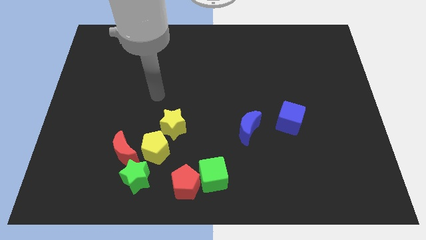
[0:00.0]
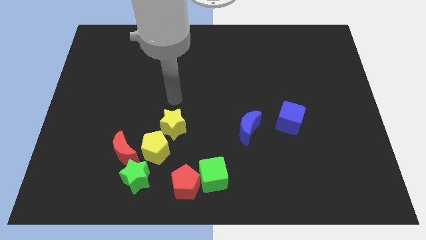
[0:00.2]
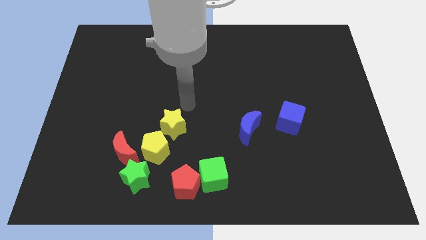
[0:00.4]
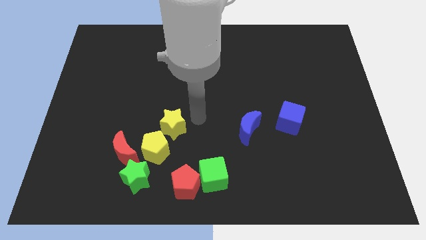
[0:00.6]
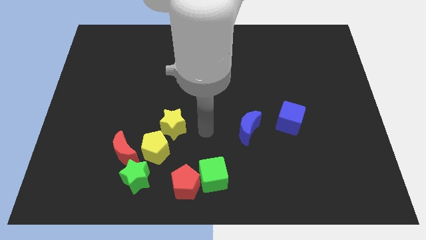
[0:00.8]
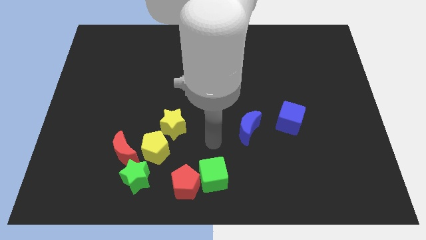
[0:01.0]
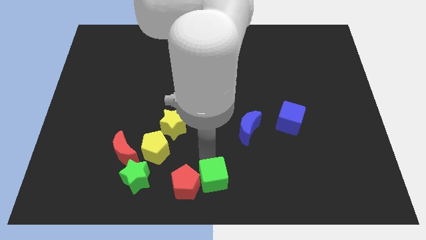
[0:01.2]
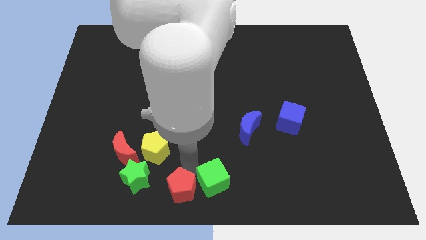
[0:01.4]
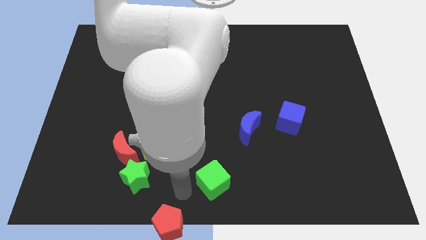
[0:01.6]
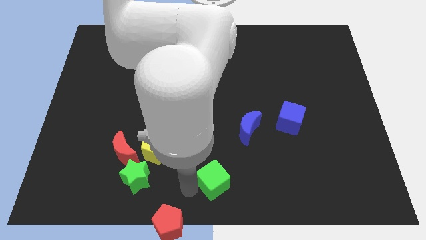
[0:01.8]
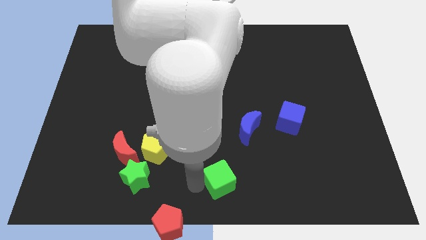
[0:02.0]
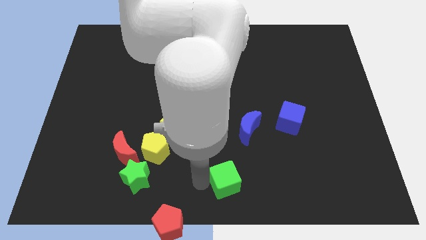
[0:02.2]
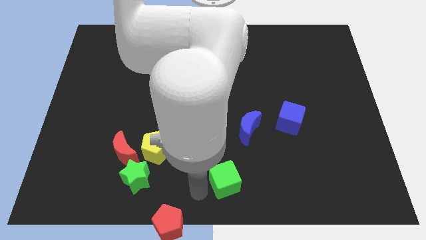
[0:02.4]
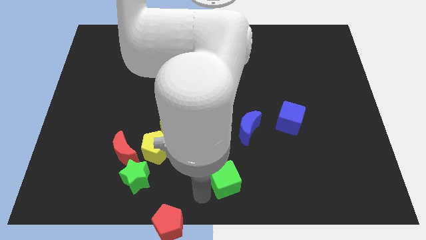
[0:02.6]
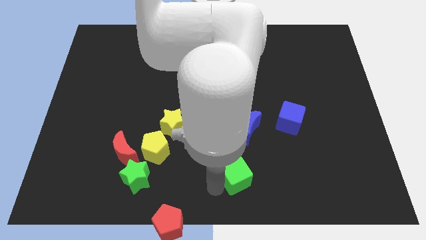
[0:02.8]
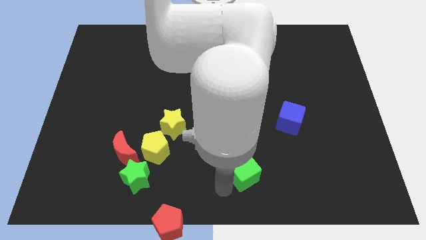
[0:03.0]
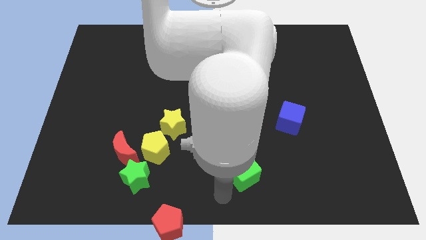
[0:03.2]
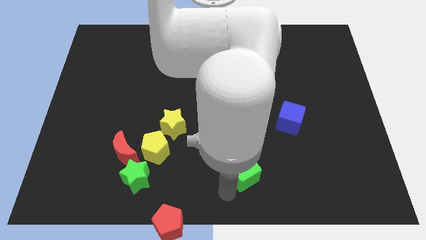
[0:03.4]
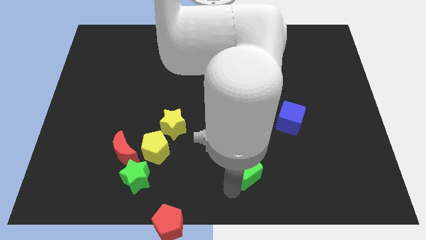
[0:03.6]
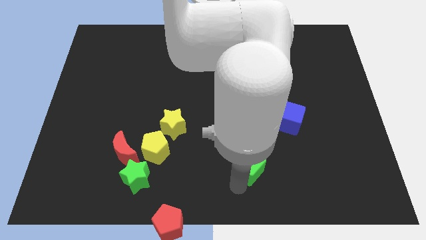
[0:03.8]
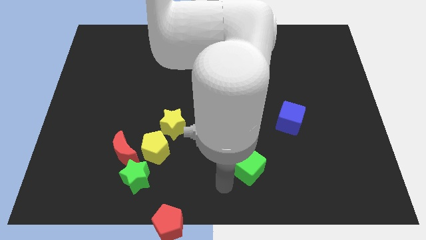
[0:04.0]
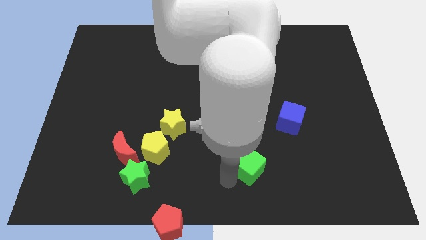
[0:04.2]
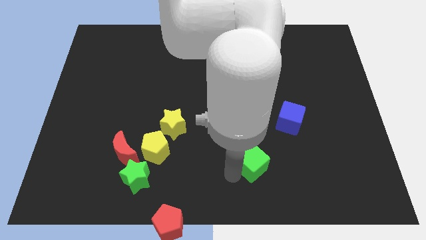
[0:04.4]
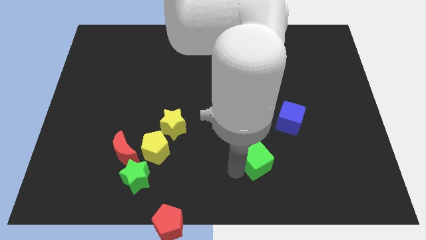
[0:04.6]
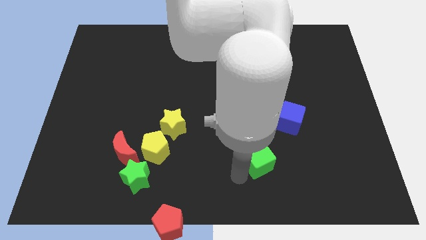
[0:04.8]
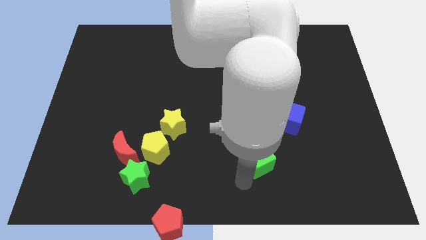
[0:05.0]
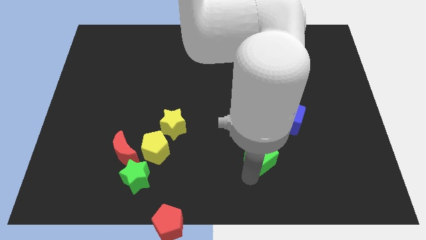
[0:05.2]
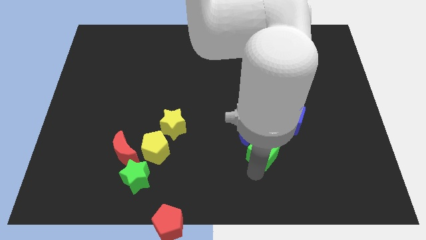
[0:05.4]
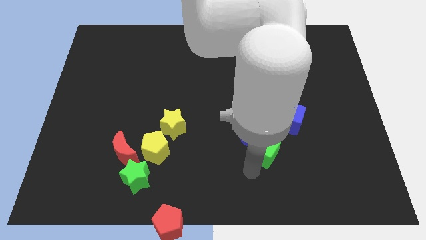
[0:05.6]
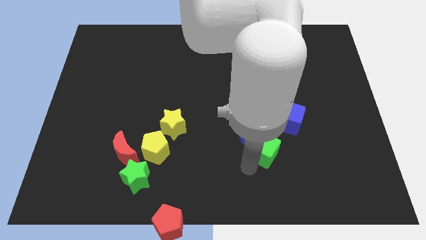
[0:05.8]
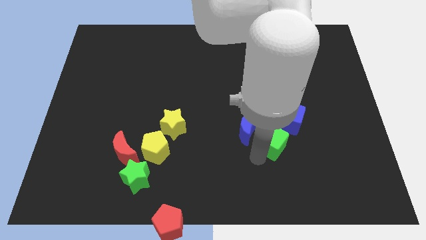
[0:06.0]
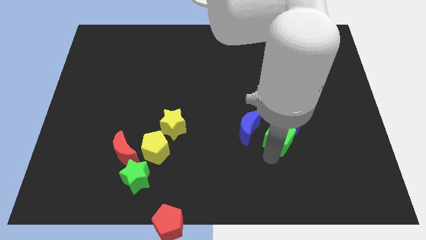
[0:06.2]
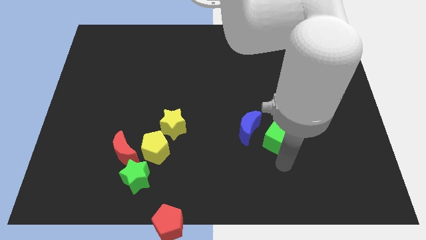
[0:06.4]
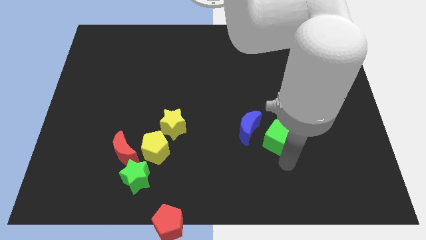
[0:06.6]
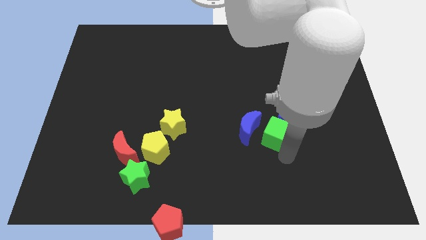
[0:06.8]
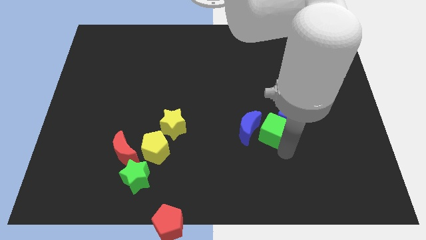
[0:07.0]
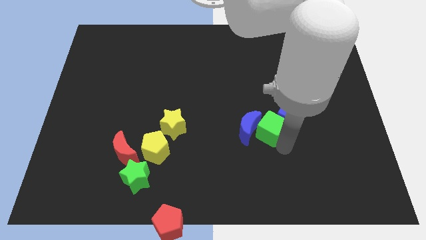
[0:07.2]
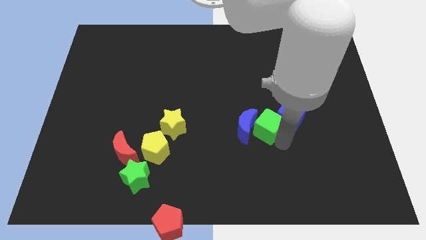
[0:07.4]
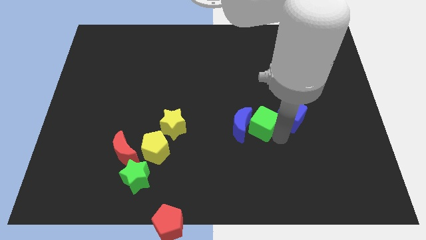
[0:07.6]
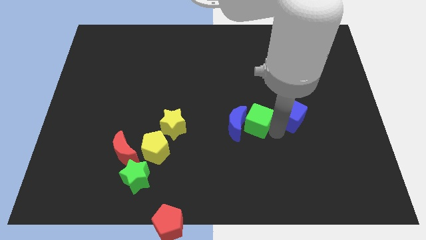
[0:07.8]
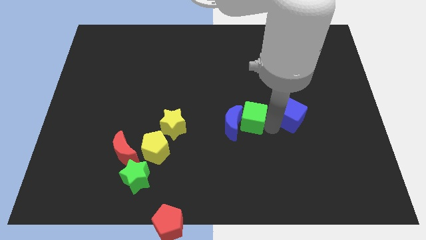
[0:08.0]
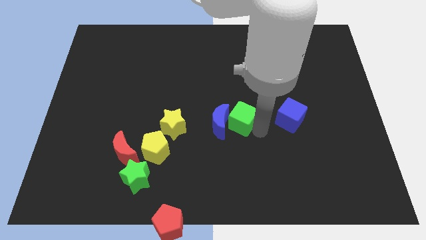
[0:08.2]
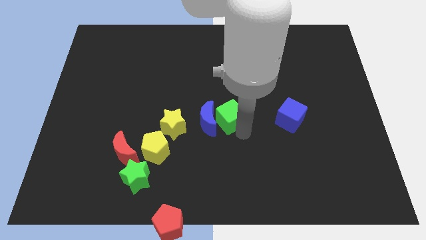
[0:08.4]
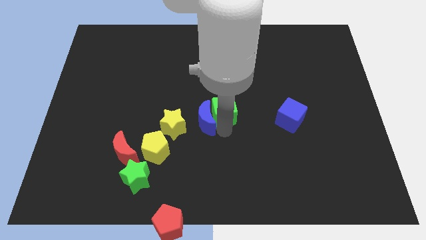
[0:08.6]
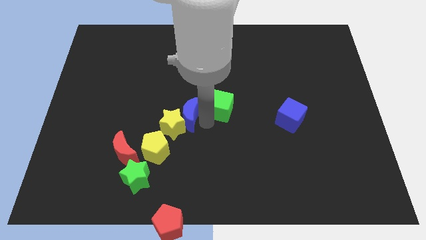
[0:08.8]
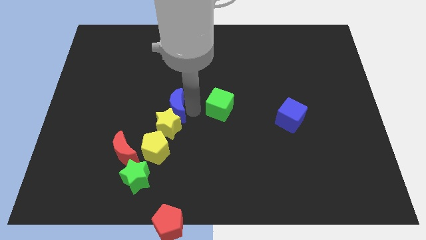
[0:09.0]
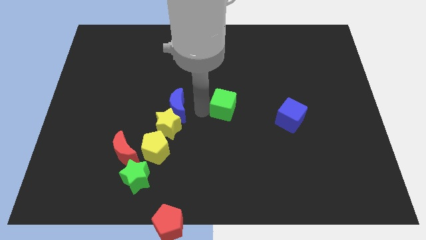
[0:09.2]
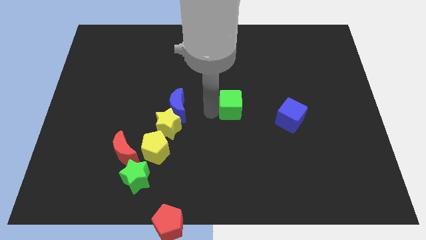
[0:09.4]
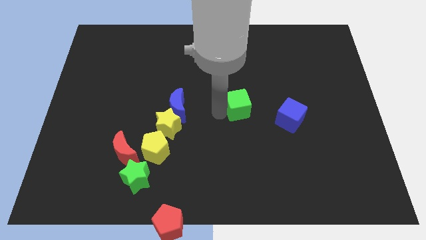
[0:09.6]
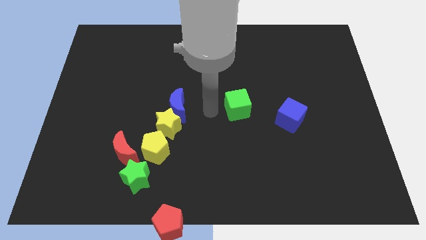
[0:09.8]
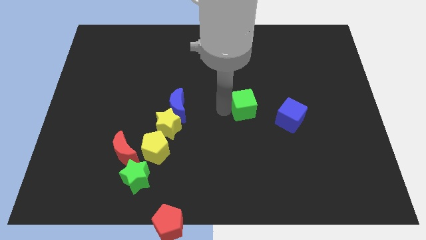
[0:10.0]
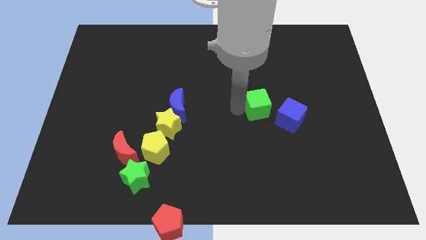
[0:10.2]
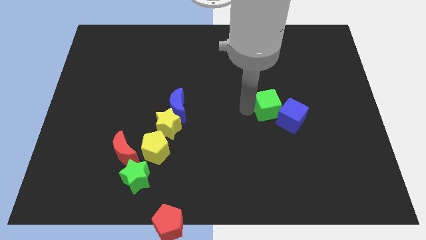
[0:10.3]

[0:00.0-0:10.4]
slide the green cube diagonally up and right

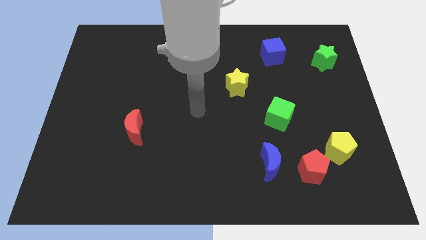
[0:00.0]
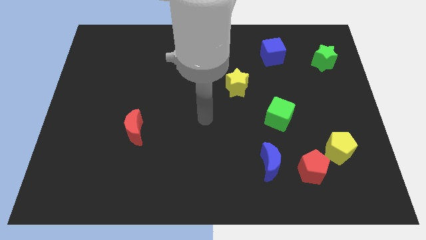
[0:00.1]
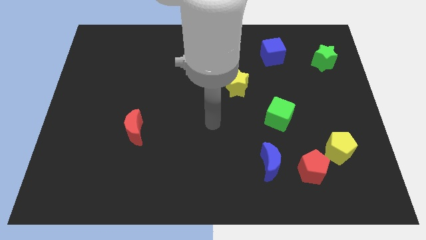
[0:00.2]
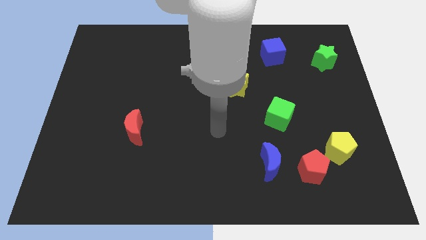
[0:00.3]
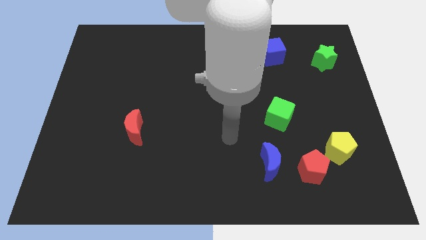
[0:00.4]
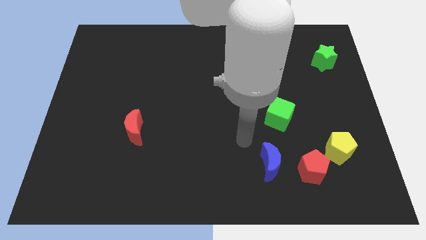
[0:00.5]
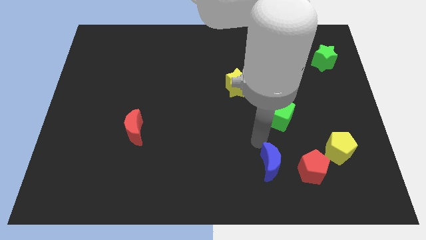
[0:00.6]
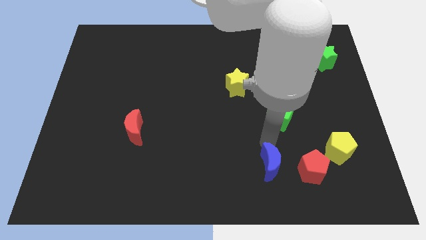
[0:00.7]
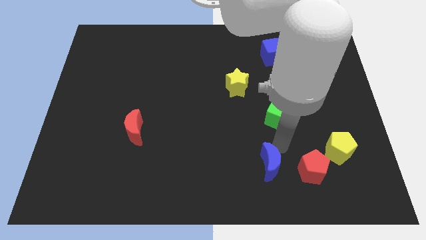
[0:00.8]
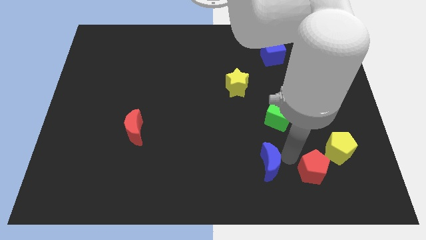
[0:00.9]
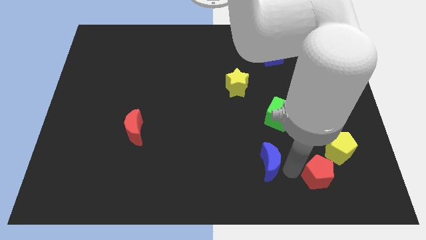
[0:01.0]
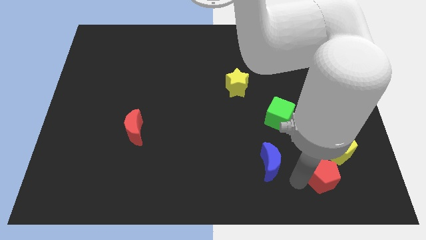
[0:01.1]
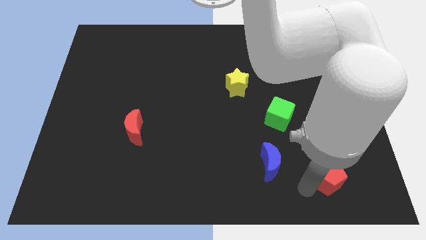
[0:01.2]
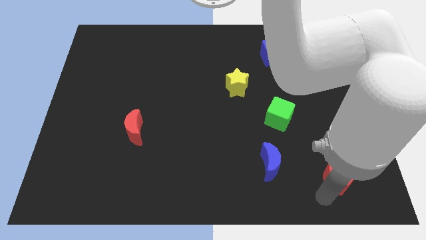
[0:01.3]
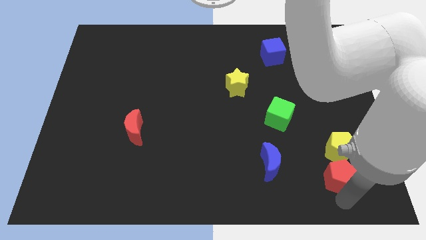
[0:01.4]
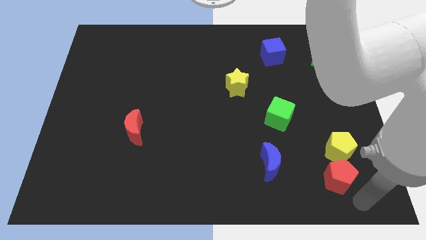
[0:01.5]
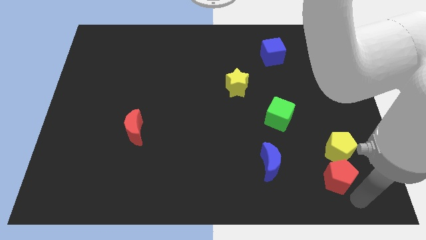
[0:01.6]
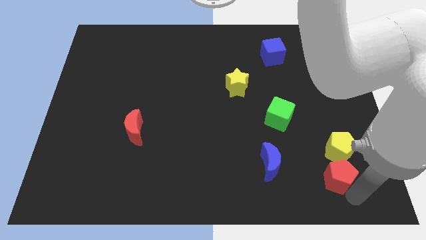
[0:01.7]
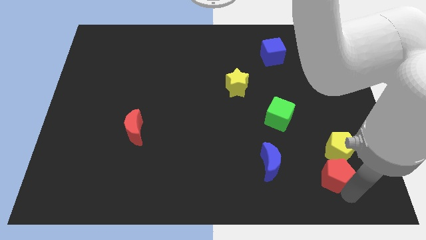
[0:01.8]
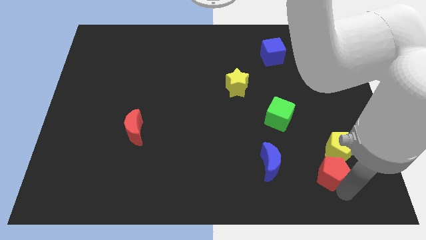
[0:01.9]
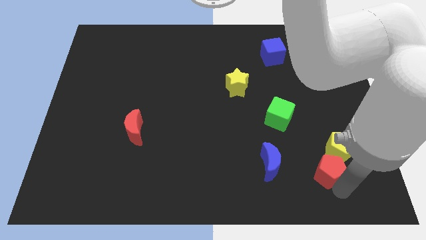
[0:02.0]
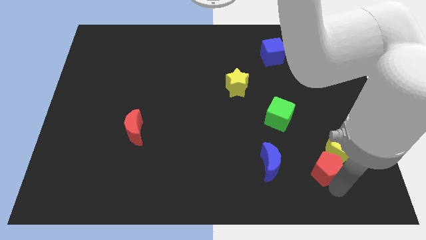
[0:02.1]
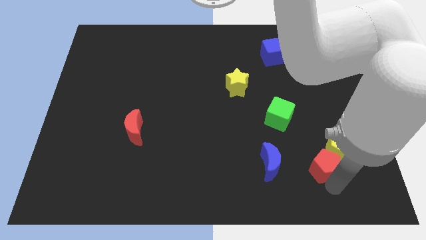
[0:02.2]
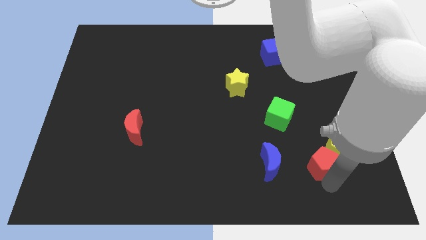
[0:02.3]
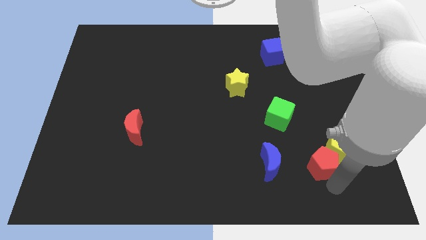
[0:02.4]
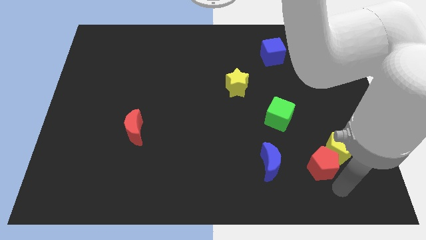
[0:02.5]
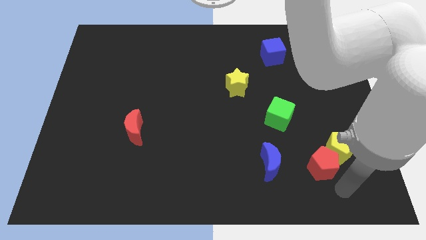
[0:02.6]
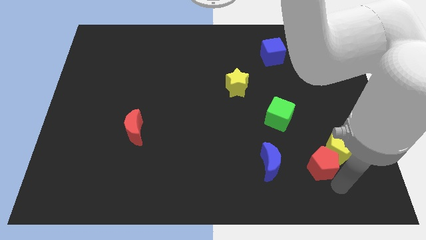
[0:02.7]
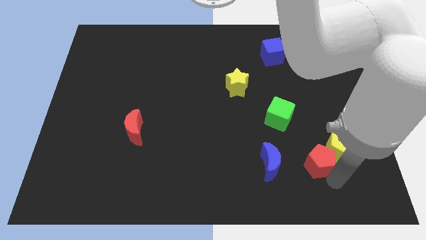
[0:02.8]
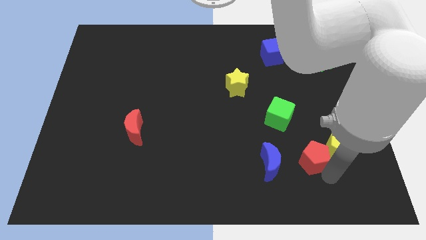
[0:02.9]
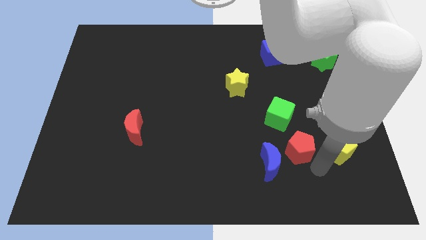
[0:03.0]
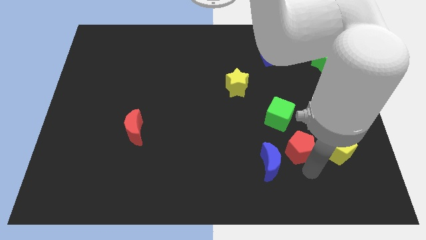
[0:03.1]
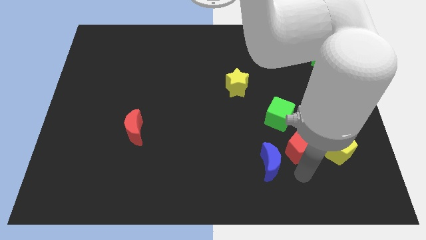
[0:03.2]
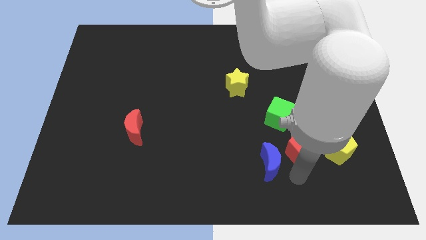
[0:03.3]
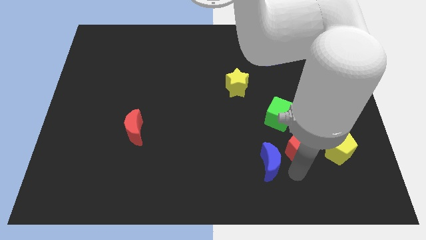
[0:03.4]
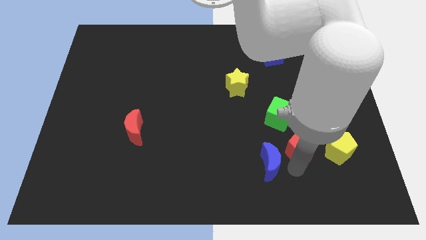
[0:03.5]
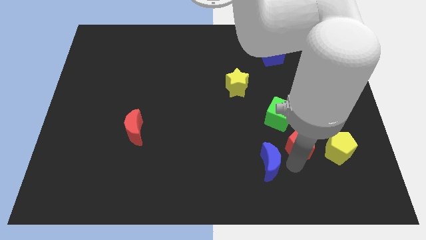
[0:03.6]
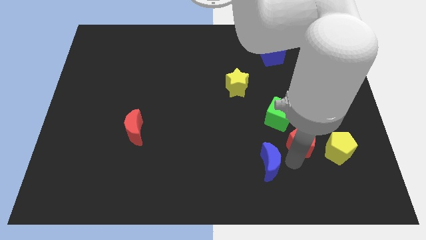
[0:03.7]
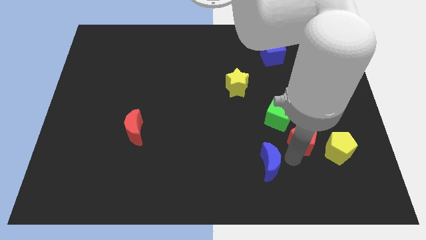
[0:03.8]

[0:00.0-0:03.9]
slide the red pentagon upwards a little
